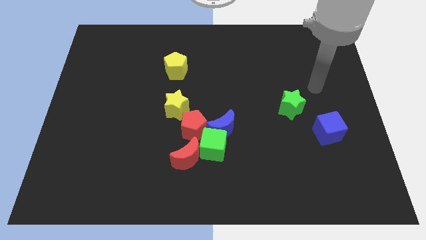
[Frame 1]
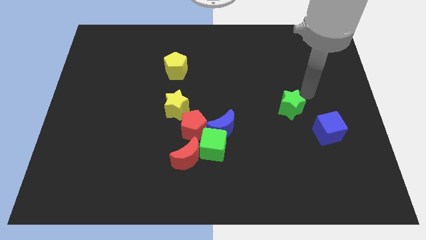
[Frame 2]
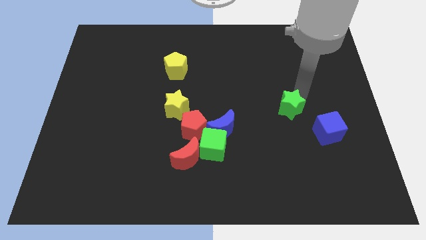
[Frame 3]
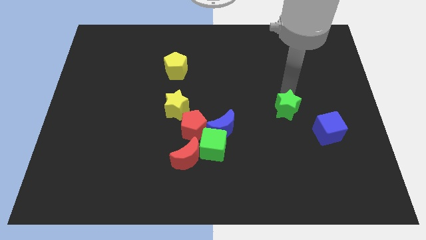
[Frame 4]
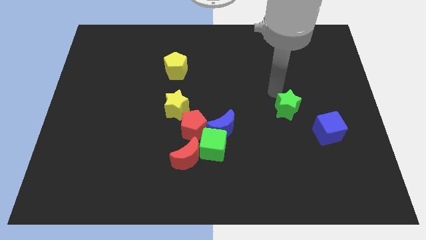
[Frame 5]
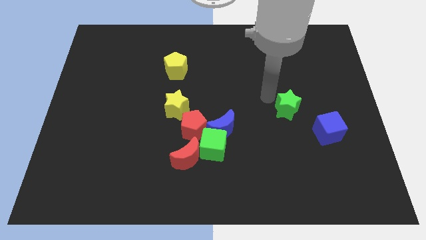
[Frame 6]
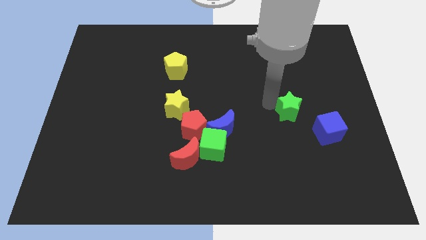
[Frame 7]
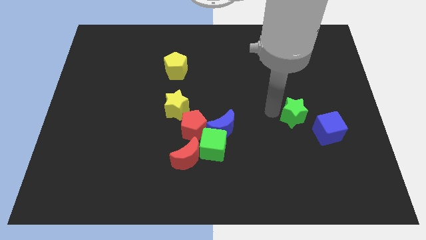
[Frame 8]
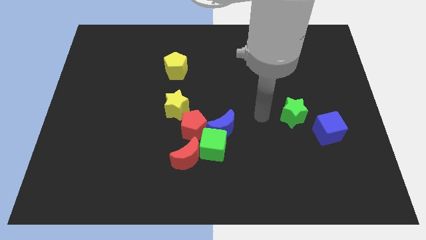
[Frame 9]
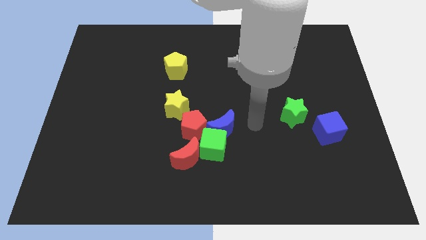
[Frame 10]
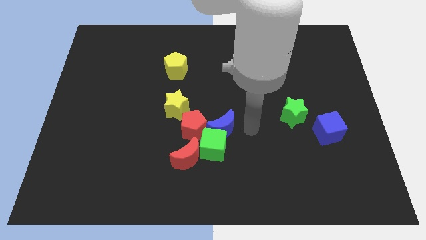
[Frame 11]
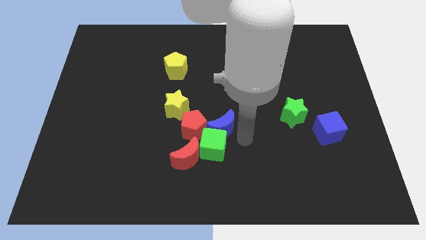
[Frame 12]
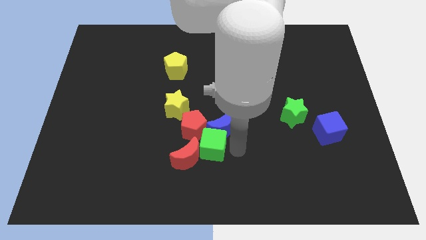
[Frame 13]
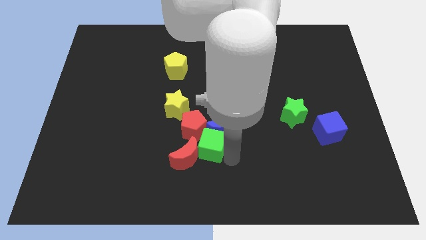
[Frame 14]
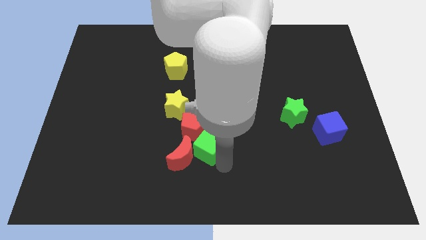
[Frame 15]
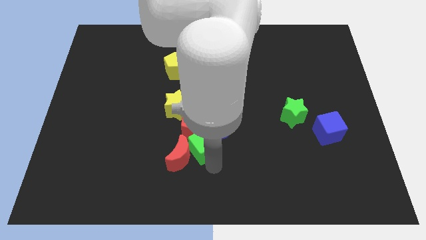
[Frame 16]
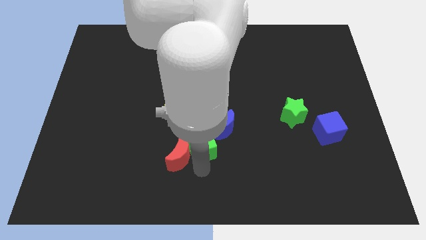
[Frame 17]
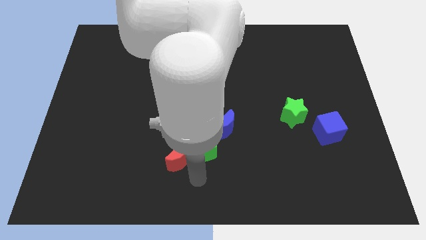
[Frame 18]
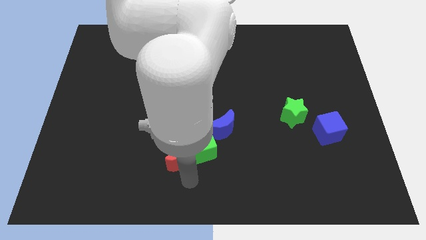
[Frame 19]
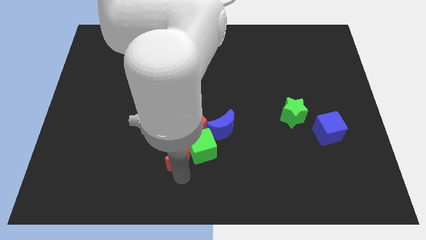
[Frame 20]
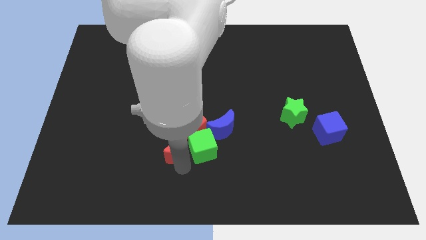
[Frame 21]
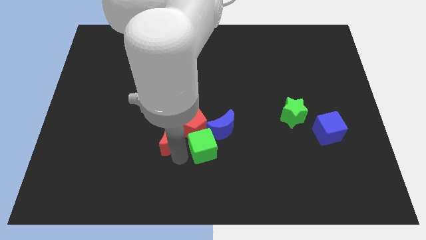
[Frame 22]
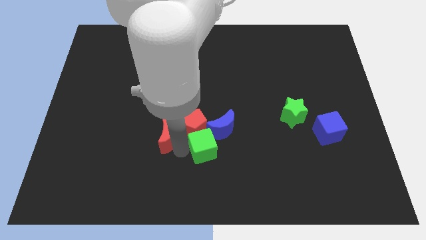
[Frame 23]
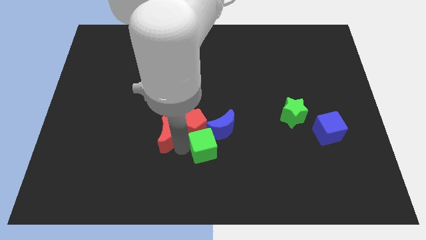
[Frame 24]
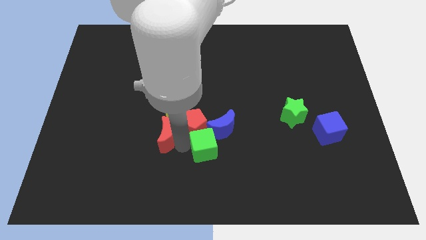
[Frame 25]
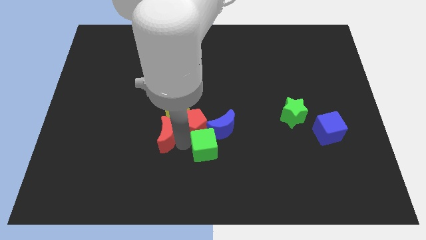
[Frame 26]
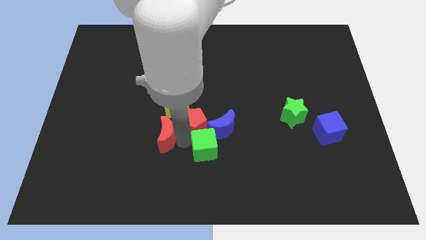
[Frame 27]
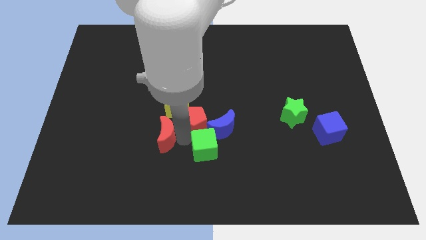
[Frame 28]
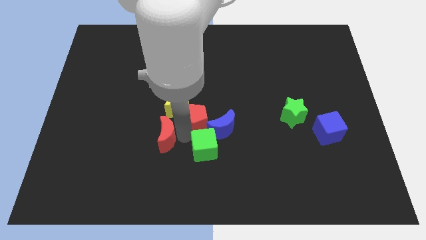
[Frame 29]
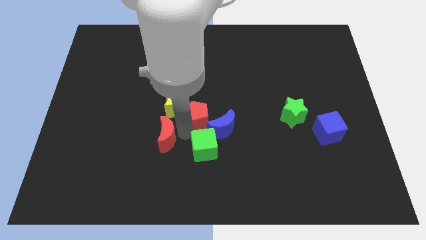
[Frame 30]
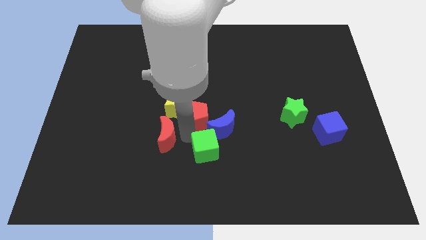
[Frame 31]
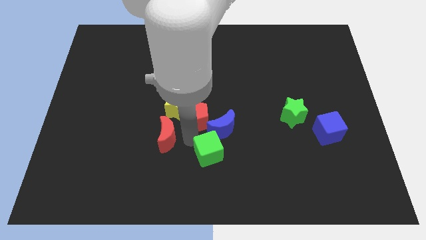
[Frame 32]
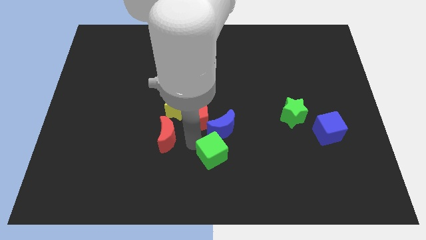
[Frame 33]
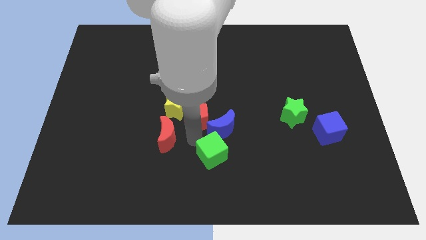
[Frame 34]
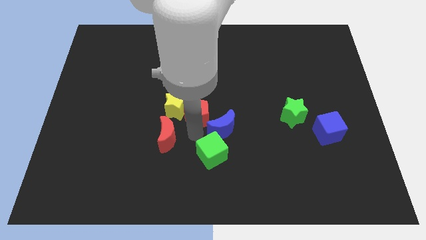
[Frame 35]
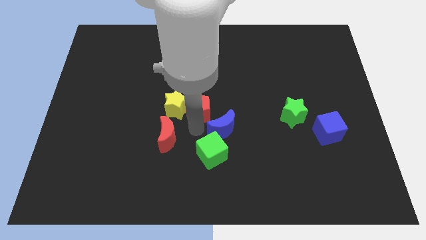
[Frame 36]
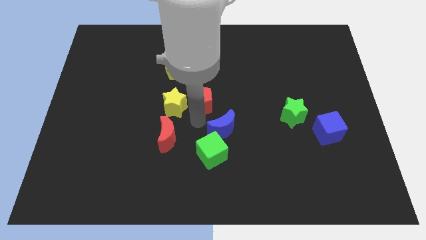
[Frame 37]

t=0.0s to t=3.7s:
push the red pentagon a little up

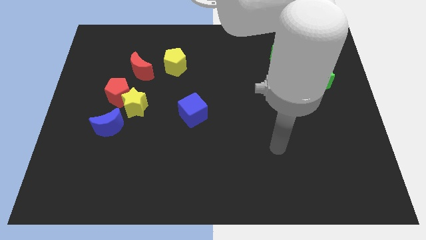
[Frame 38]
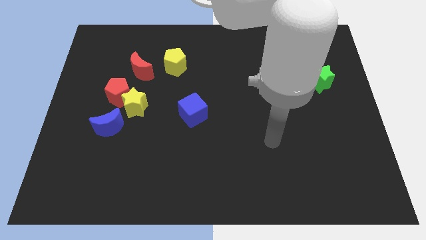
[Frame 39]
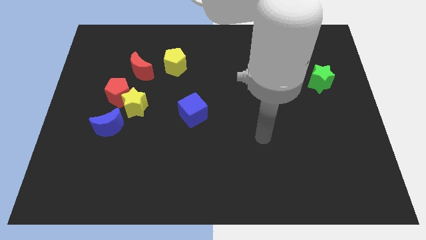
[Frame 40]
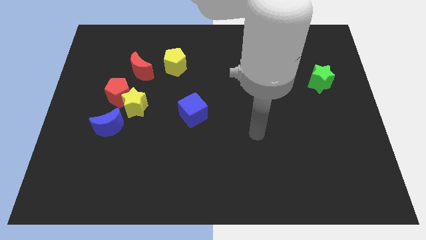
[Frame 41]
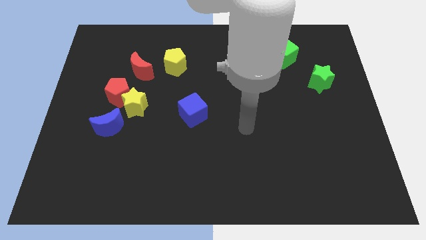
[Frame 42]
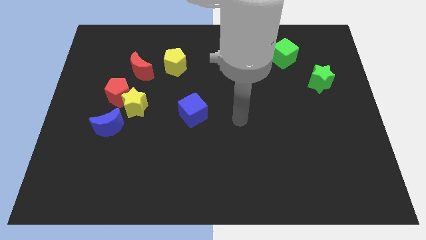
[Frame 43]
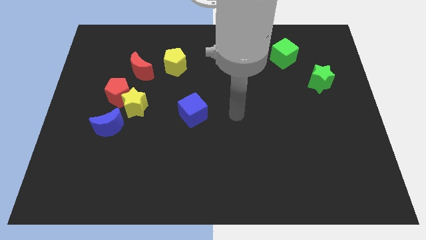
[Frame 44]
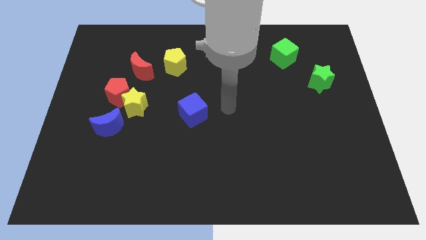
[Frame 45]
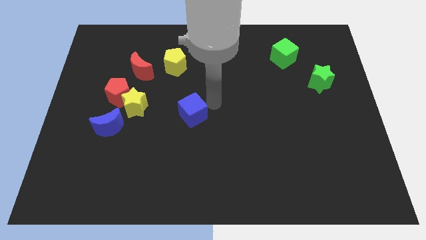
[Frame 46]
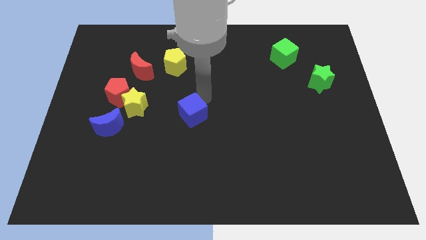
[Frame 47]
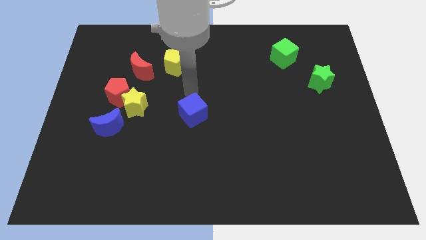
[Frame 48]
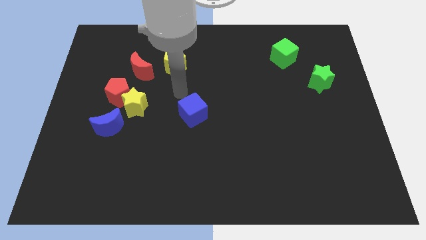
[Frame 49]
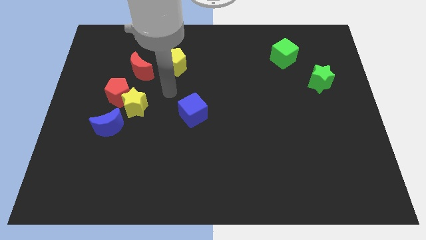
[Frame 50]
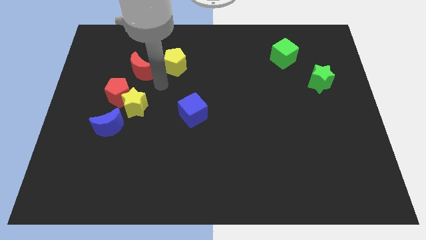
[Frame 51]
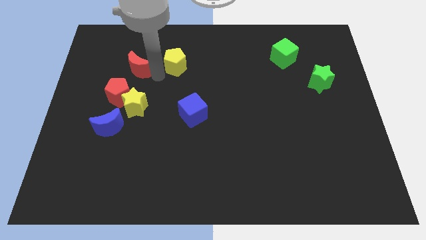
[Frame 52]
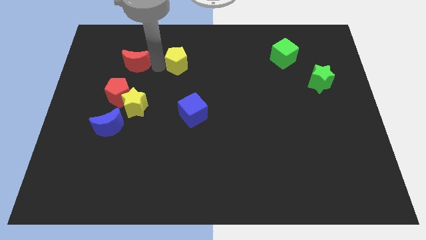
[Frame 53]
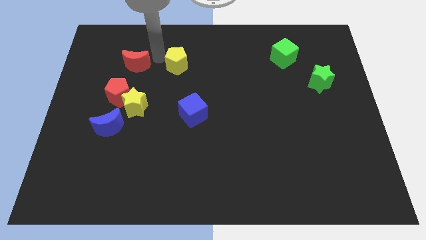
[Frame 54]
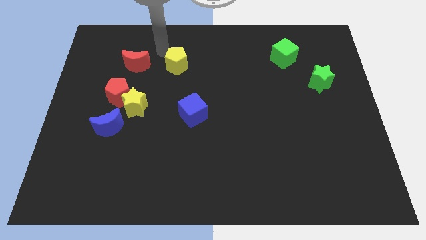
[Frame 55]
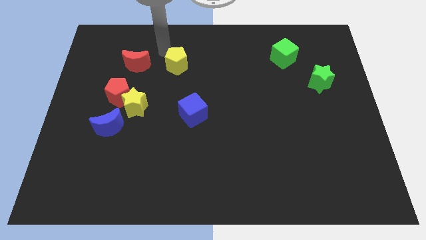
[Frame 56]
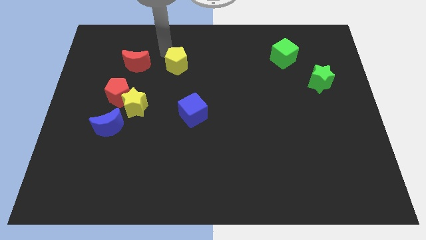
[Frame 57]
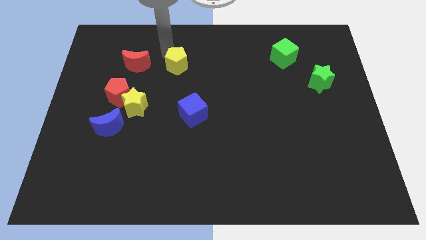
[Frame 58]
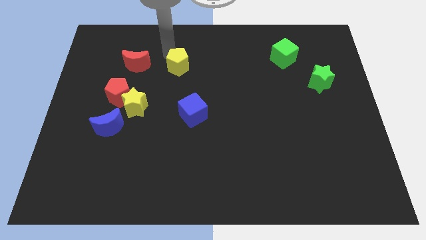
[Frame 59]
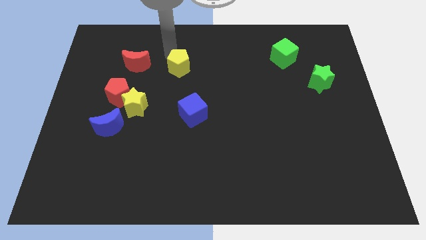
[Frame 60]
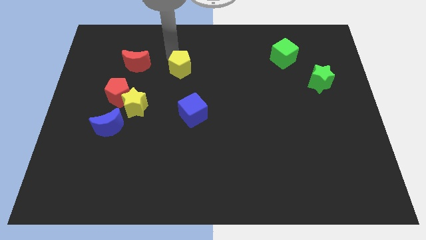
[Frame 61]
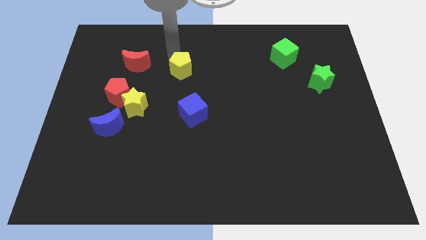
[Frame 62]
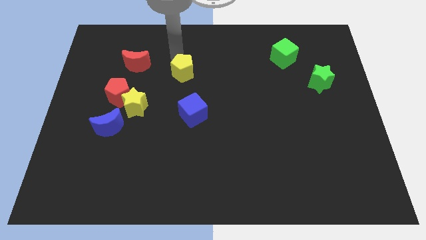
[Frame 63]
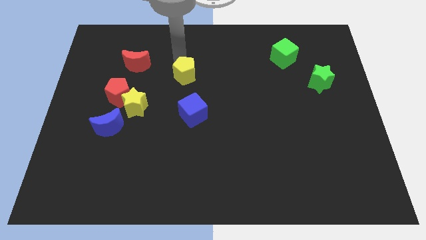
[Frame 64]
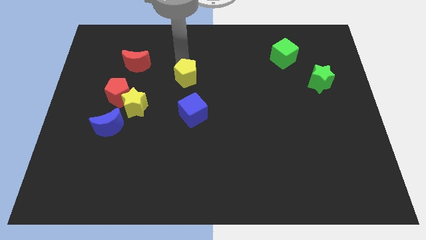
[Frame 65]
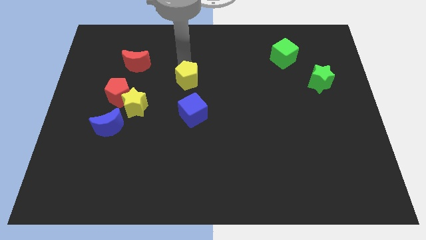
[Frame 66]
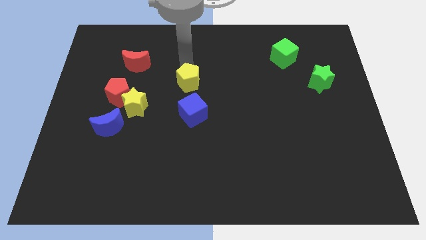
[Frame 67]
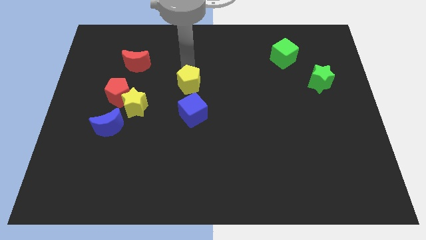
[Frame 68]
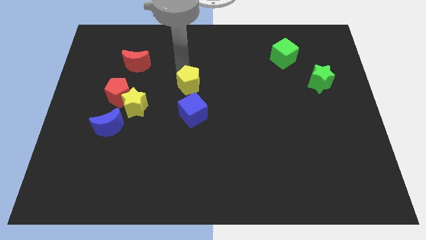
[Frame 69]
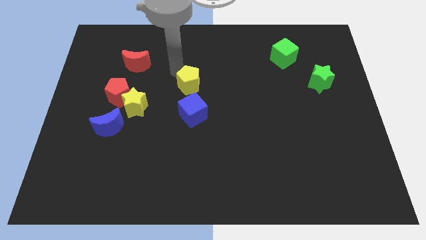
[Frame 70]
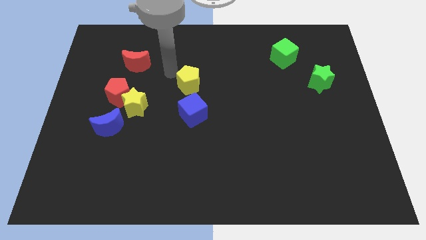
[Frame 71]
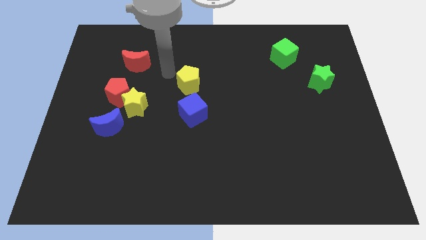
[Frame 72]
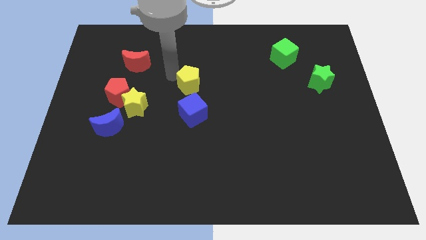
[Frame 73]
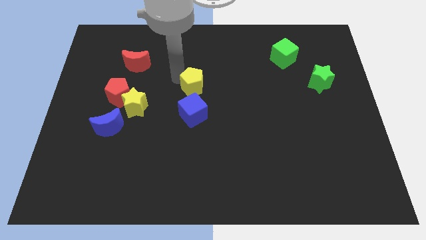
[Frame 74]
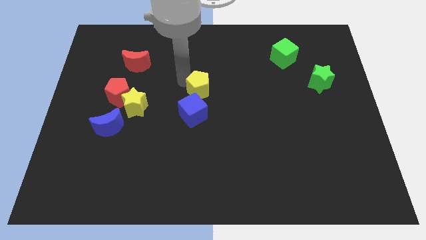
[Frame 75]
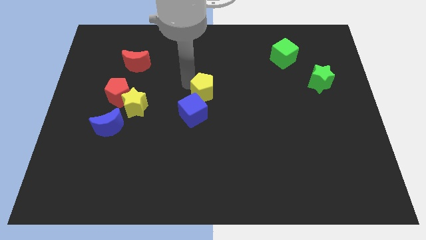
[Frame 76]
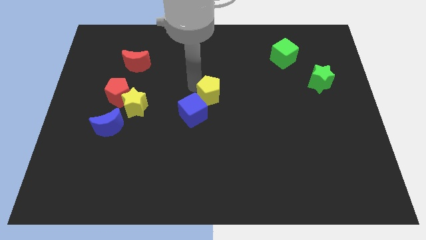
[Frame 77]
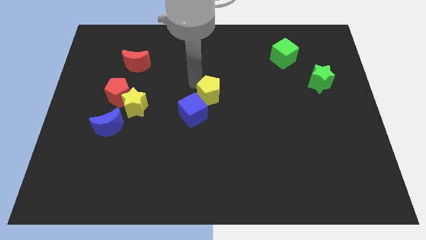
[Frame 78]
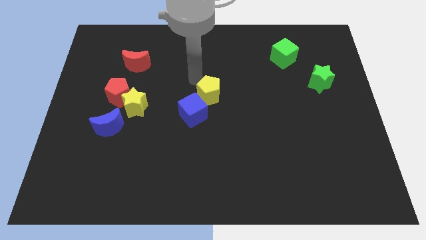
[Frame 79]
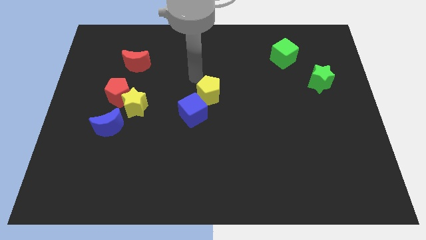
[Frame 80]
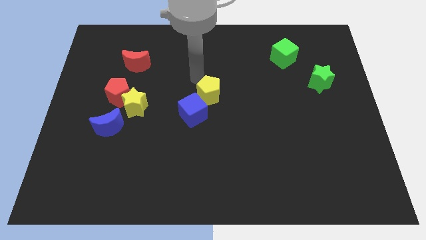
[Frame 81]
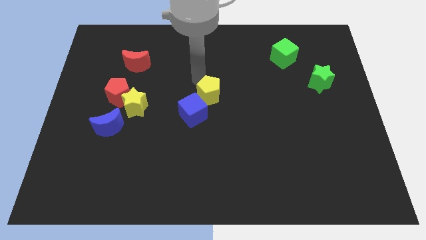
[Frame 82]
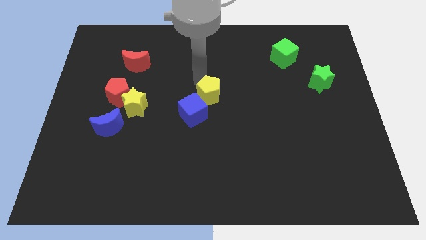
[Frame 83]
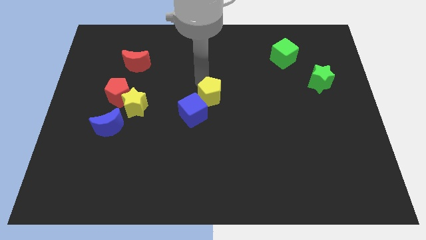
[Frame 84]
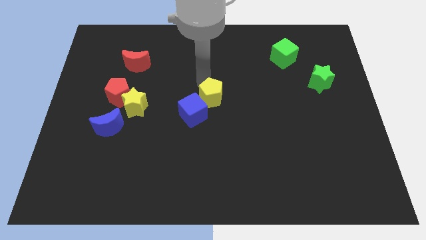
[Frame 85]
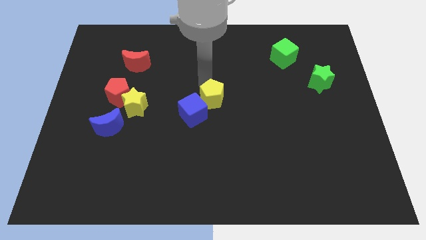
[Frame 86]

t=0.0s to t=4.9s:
slightly push the yellow pentagon downwards
